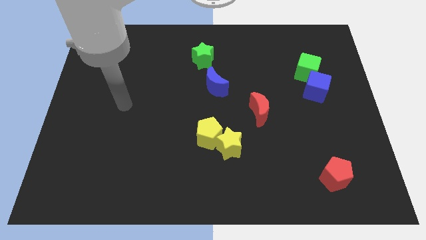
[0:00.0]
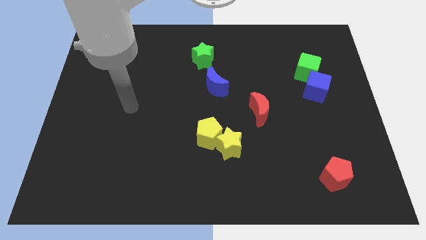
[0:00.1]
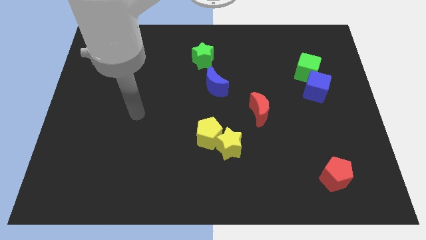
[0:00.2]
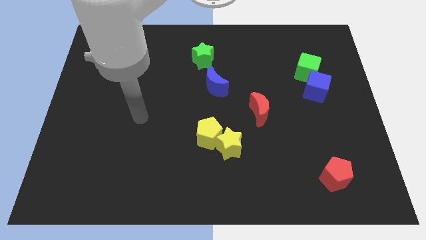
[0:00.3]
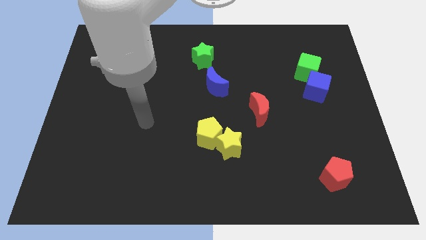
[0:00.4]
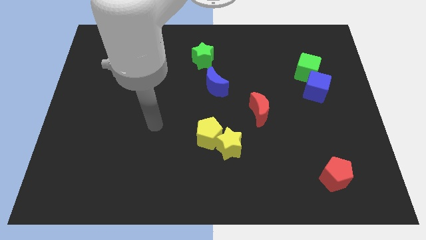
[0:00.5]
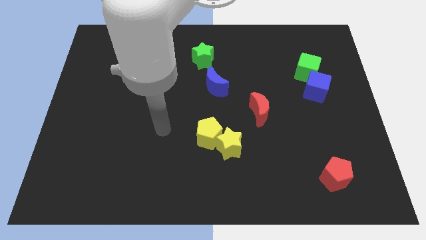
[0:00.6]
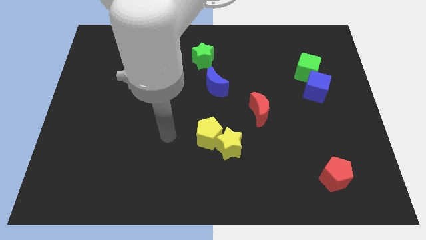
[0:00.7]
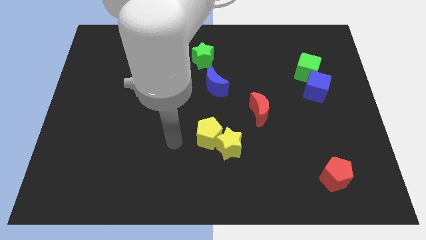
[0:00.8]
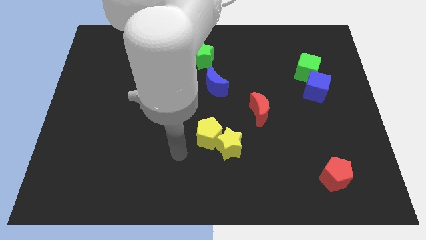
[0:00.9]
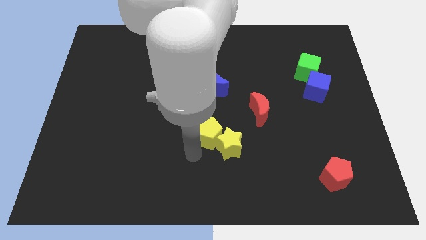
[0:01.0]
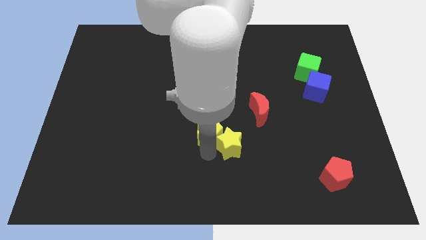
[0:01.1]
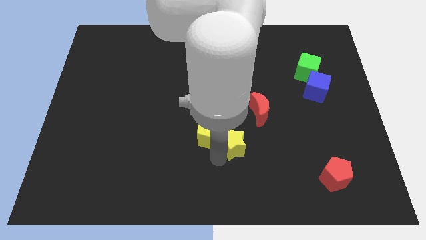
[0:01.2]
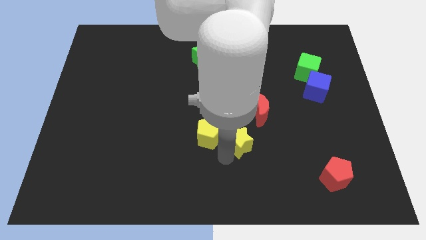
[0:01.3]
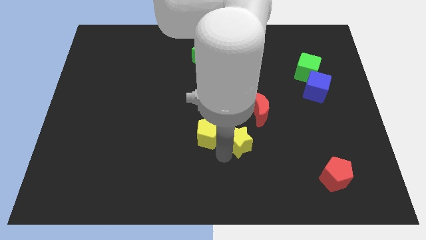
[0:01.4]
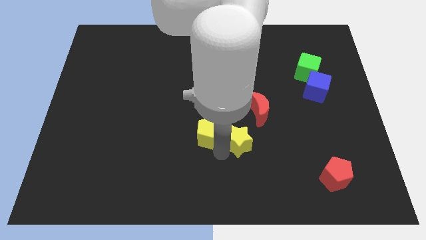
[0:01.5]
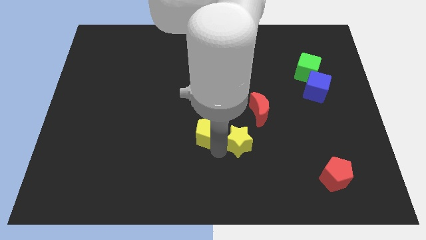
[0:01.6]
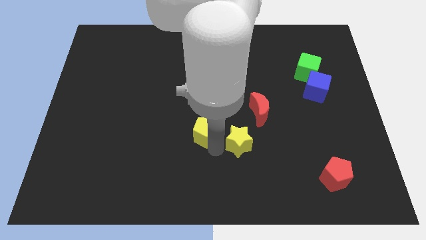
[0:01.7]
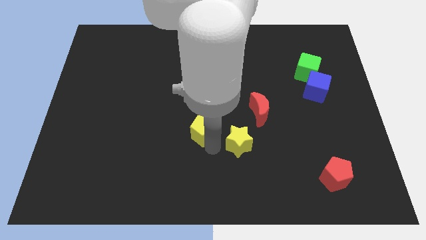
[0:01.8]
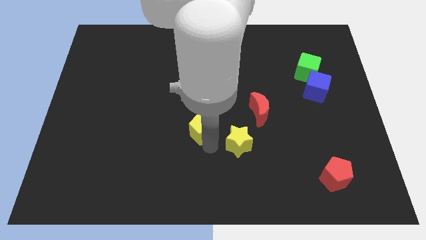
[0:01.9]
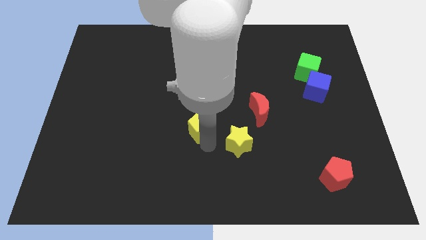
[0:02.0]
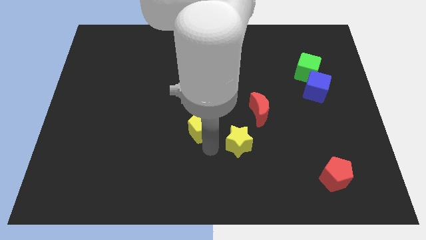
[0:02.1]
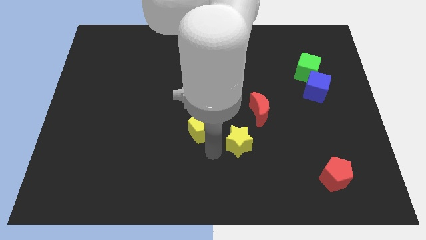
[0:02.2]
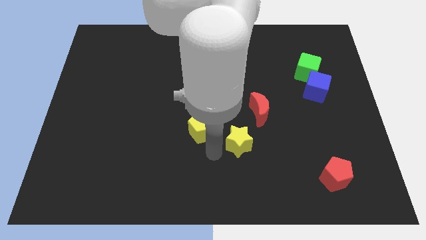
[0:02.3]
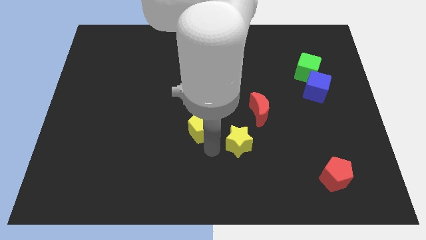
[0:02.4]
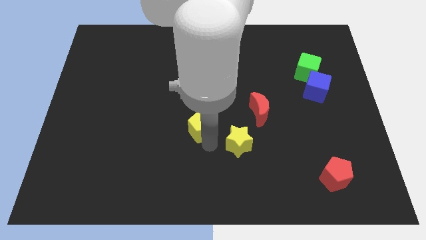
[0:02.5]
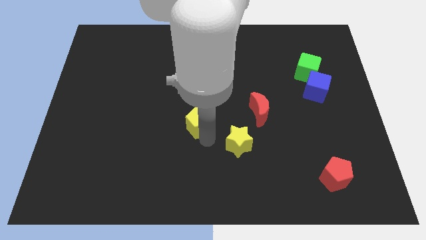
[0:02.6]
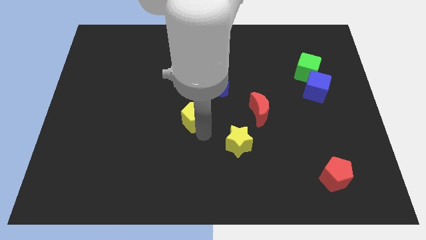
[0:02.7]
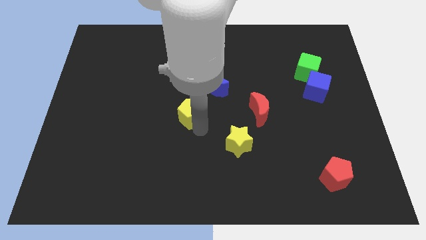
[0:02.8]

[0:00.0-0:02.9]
move the yellow pentagon a little upwards and left

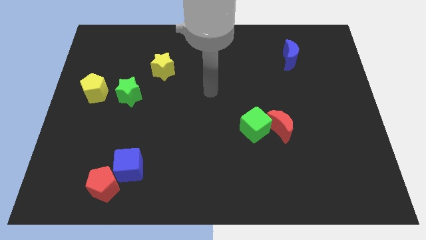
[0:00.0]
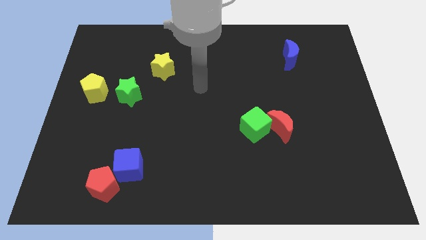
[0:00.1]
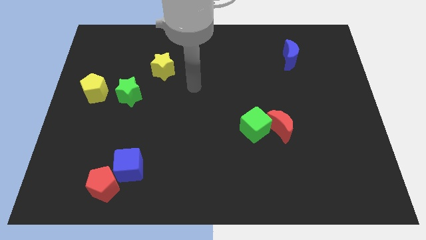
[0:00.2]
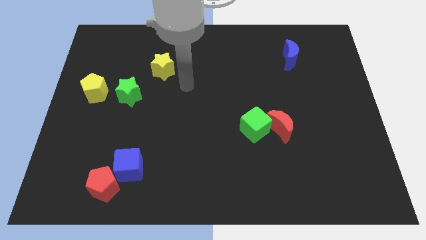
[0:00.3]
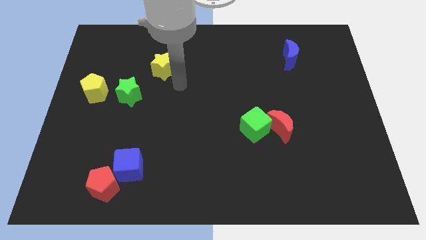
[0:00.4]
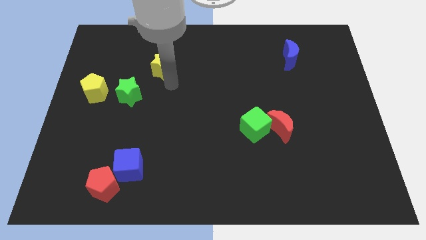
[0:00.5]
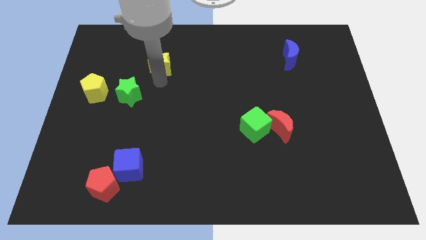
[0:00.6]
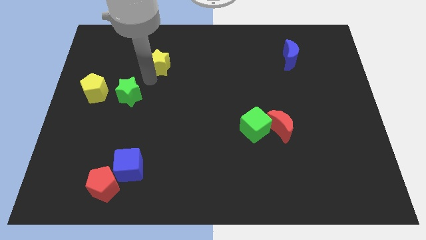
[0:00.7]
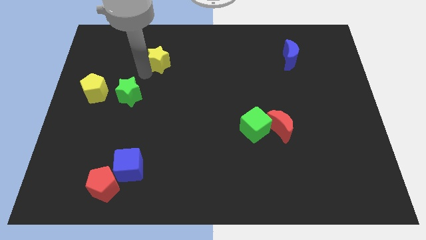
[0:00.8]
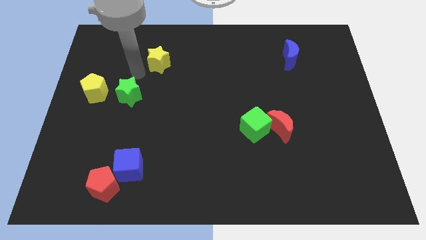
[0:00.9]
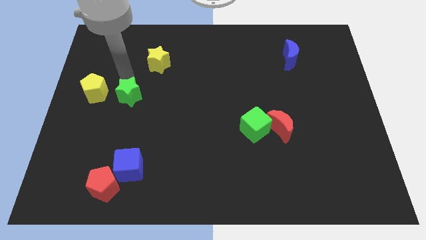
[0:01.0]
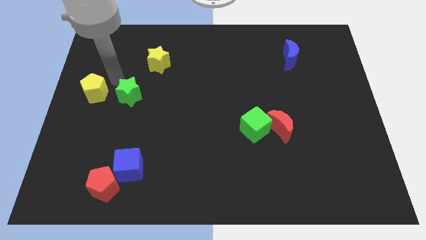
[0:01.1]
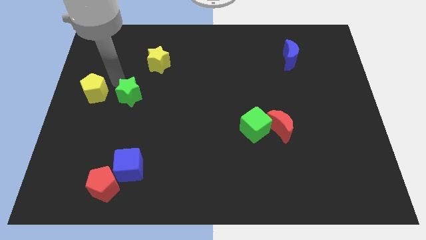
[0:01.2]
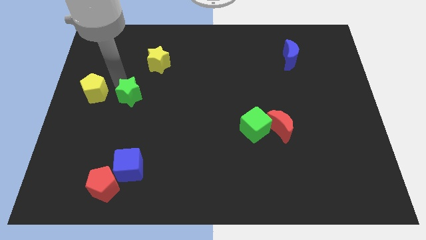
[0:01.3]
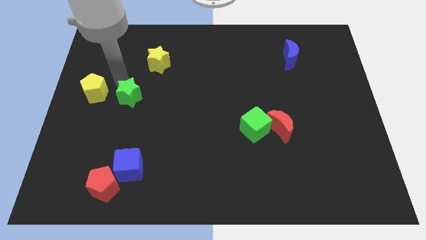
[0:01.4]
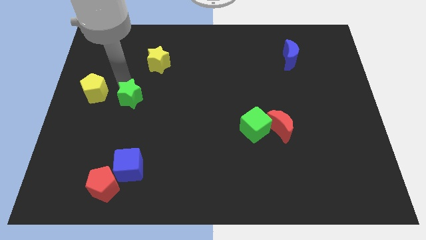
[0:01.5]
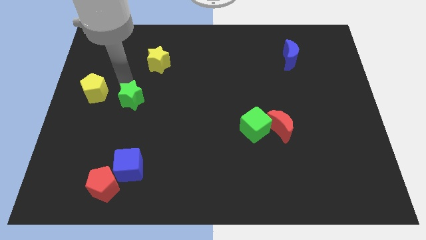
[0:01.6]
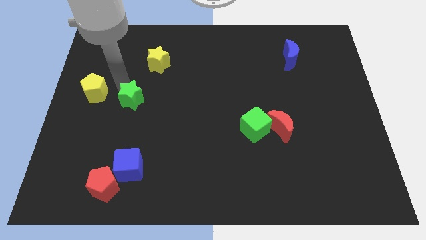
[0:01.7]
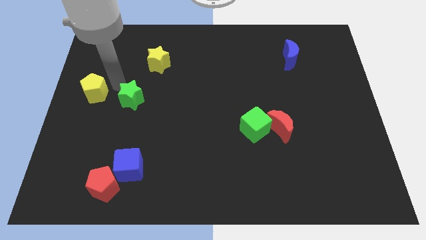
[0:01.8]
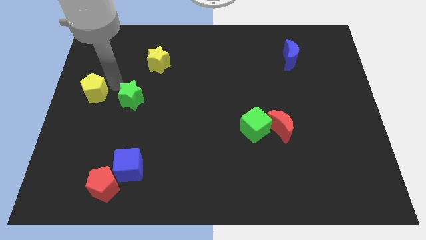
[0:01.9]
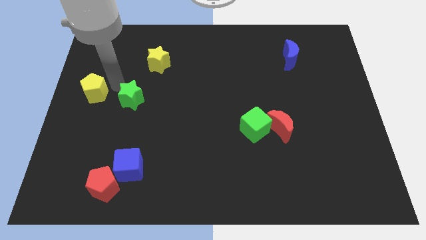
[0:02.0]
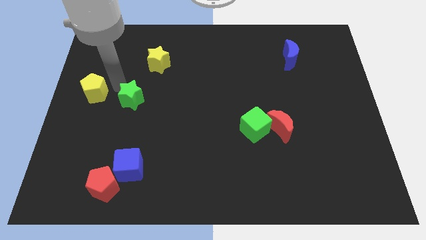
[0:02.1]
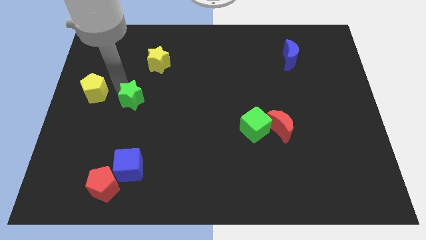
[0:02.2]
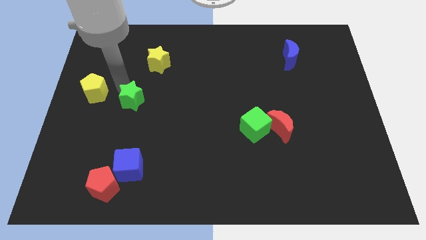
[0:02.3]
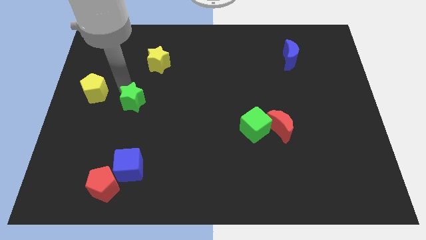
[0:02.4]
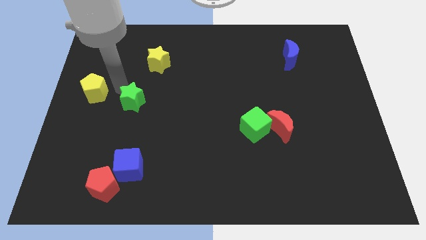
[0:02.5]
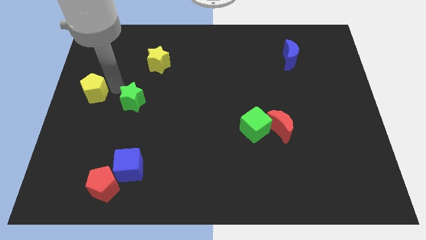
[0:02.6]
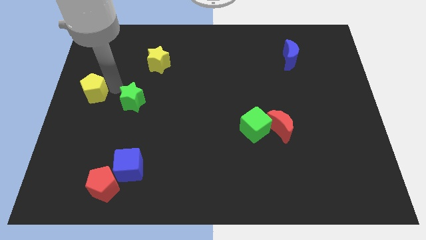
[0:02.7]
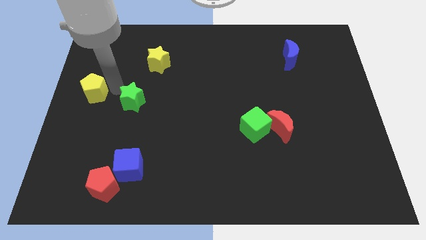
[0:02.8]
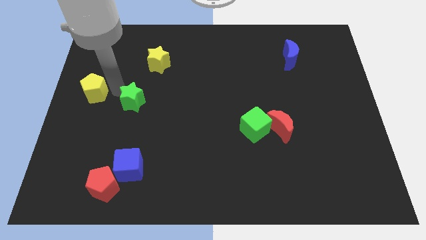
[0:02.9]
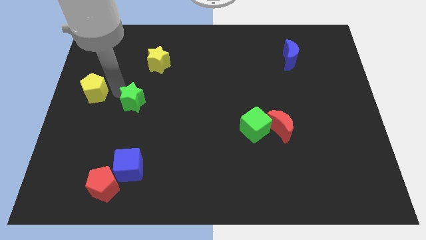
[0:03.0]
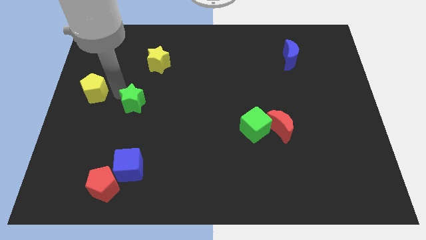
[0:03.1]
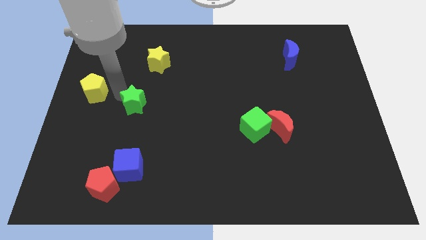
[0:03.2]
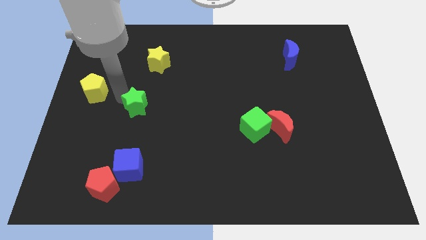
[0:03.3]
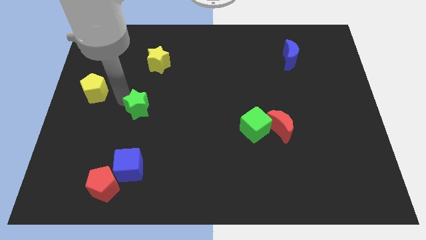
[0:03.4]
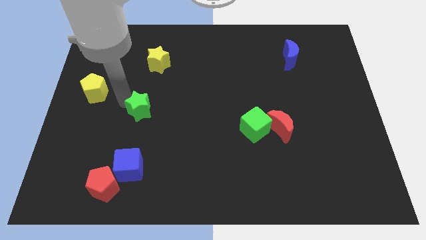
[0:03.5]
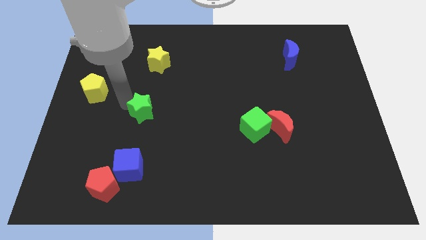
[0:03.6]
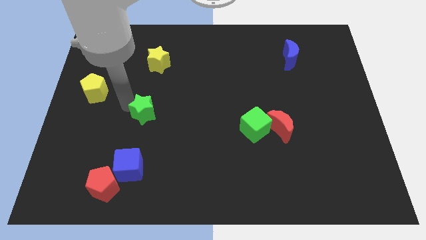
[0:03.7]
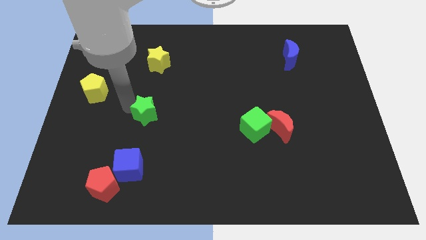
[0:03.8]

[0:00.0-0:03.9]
move the green star downwards and to the right diagonally a bit

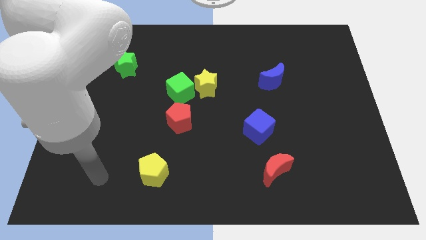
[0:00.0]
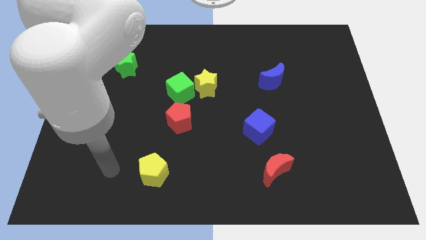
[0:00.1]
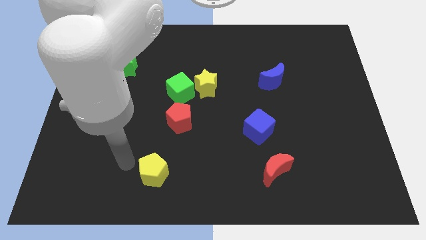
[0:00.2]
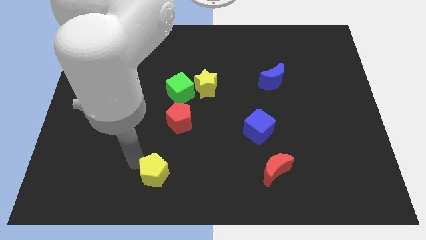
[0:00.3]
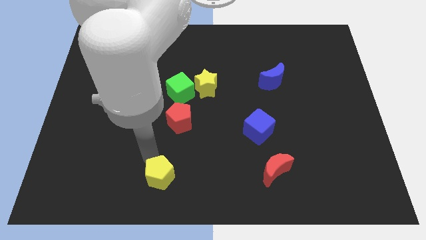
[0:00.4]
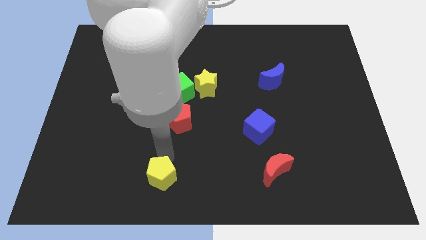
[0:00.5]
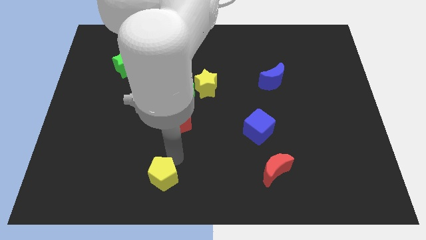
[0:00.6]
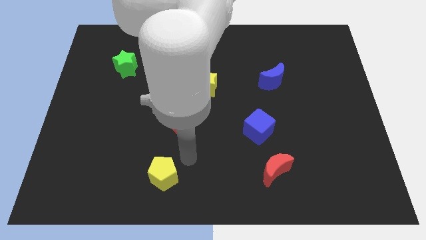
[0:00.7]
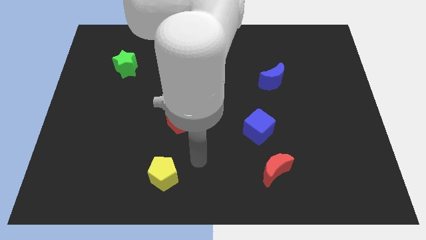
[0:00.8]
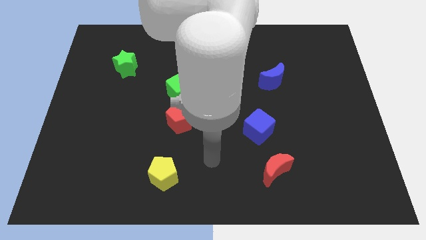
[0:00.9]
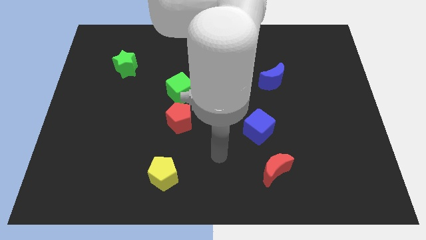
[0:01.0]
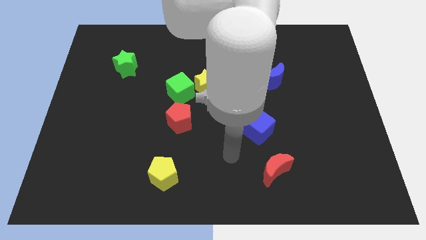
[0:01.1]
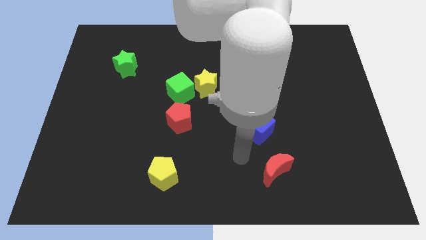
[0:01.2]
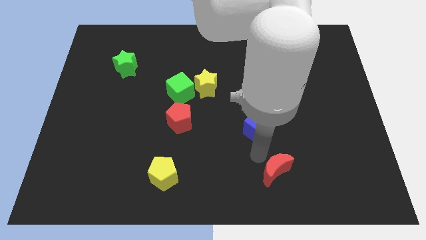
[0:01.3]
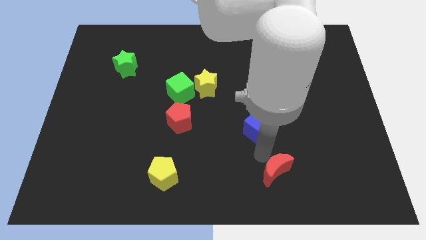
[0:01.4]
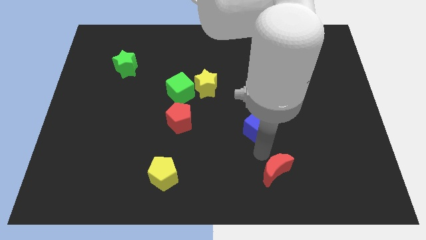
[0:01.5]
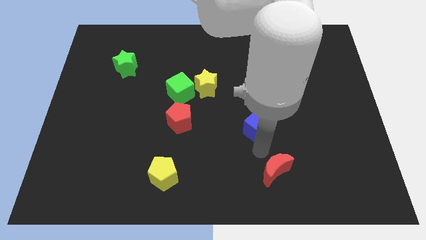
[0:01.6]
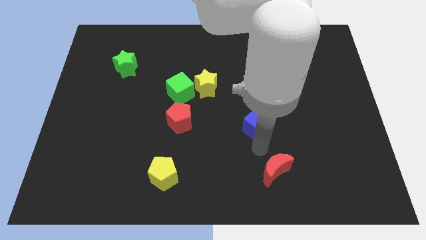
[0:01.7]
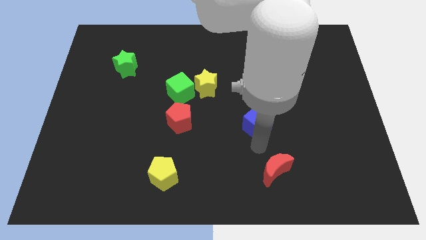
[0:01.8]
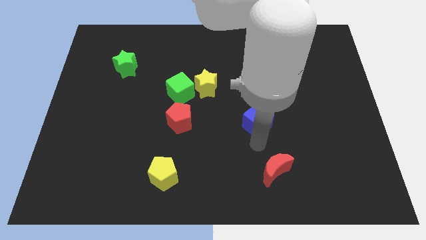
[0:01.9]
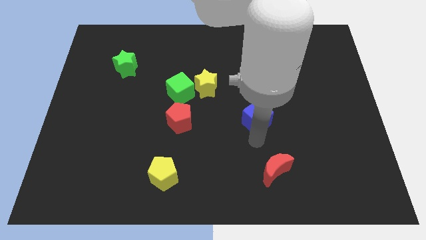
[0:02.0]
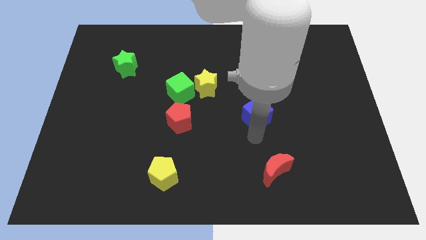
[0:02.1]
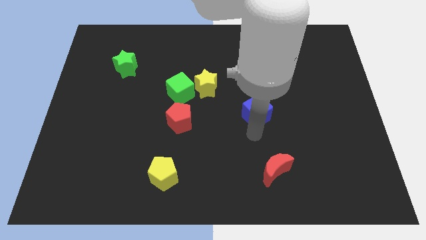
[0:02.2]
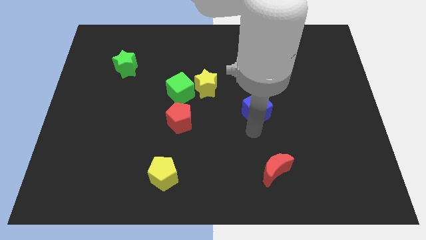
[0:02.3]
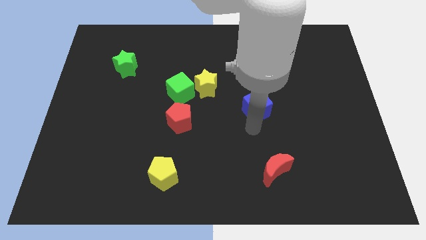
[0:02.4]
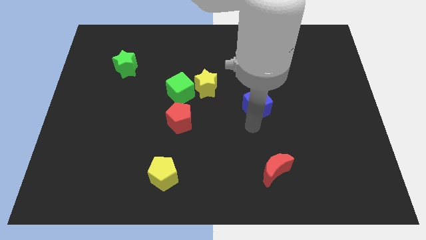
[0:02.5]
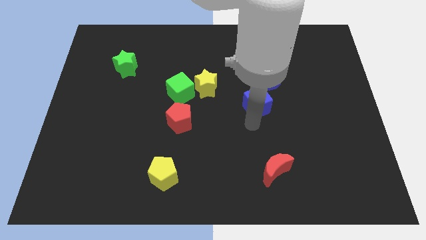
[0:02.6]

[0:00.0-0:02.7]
push the blue cube up slightly
